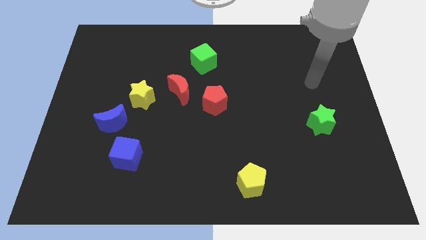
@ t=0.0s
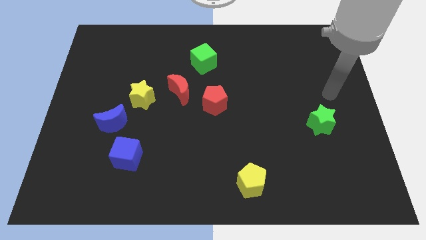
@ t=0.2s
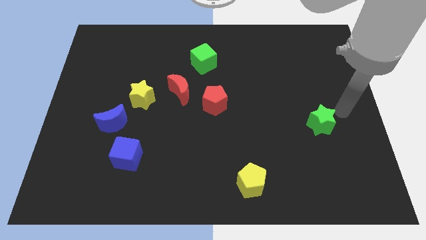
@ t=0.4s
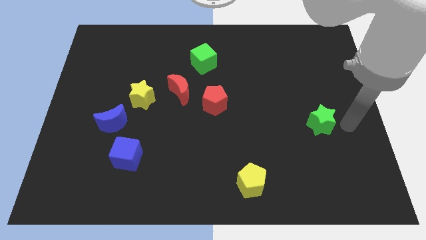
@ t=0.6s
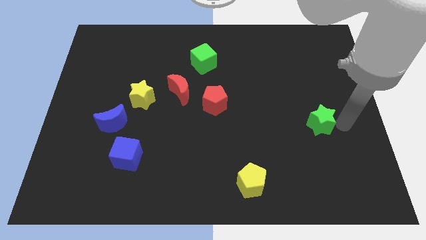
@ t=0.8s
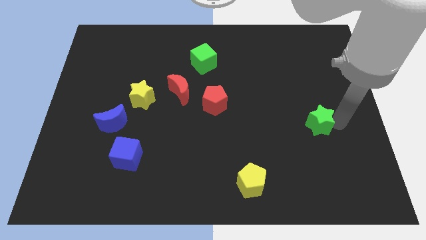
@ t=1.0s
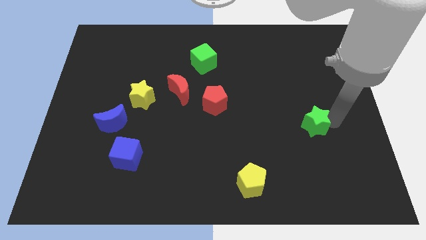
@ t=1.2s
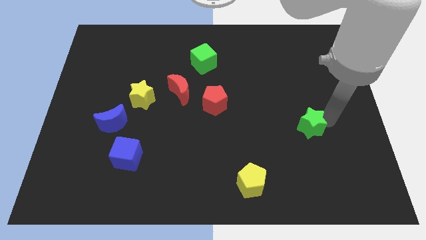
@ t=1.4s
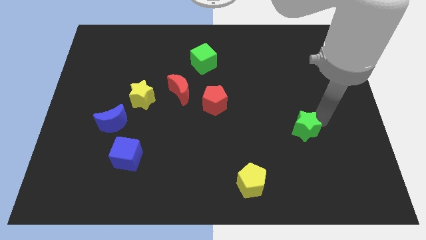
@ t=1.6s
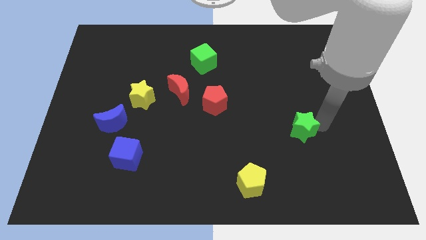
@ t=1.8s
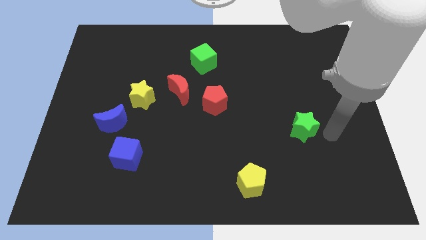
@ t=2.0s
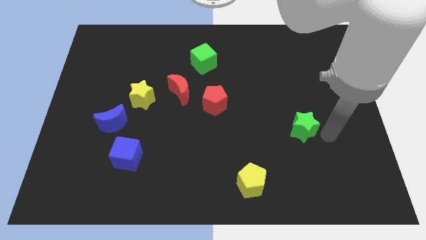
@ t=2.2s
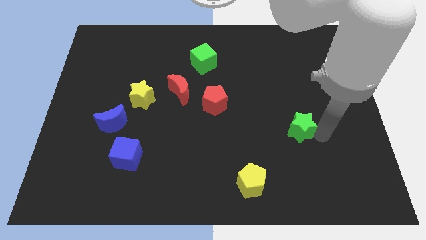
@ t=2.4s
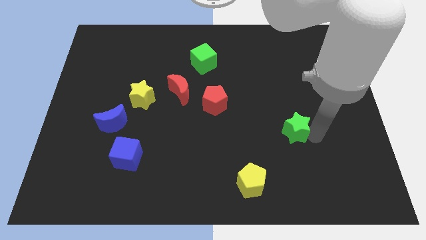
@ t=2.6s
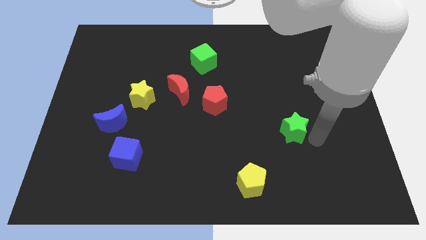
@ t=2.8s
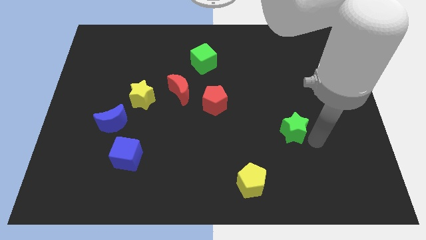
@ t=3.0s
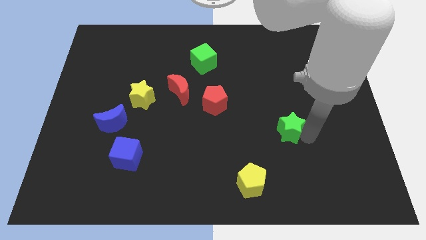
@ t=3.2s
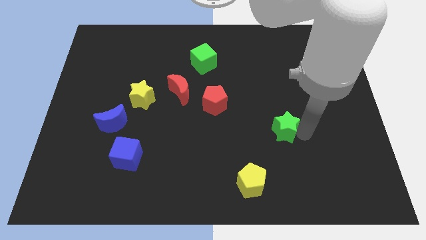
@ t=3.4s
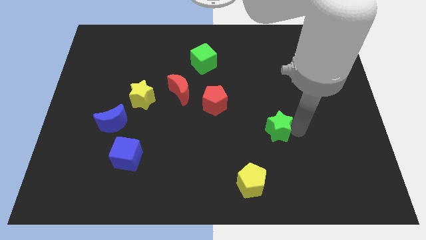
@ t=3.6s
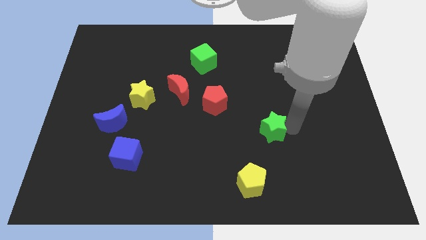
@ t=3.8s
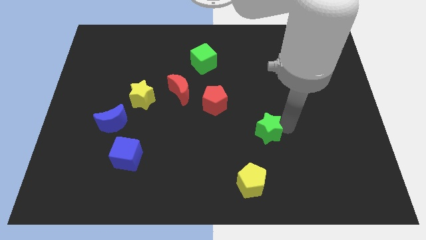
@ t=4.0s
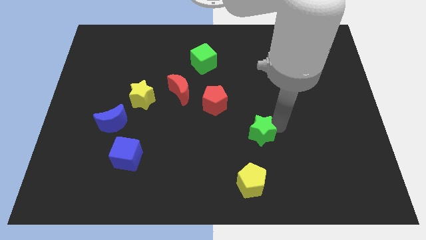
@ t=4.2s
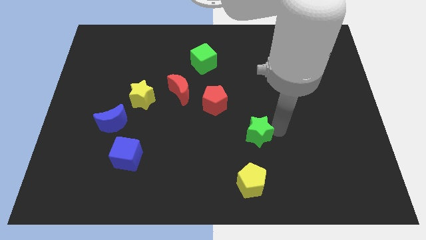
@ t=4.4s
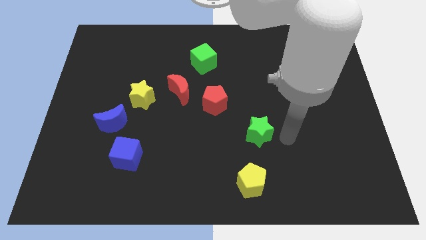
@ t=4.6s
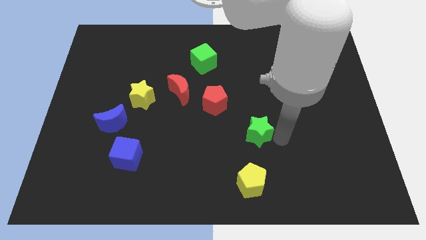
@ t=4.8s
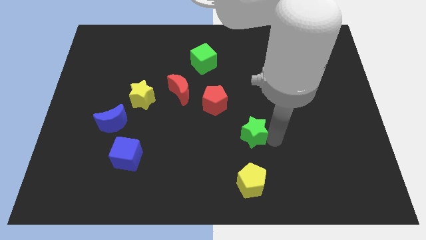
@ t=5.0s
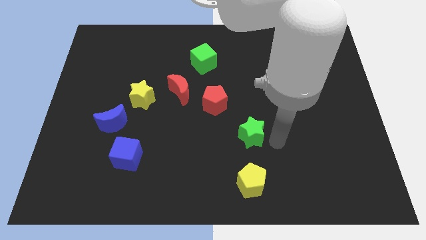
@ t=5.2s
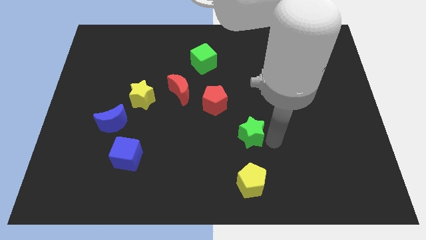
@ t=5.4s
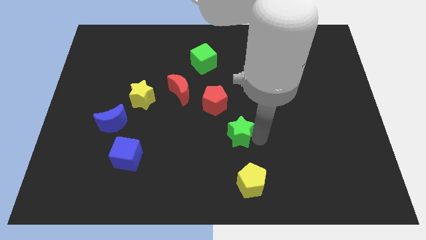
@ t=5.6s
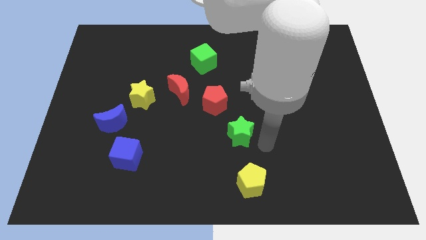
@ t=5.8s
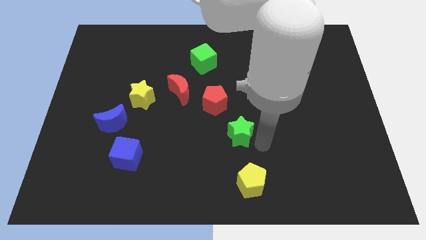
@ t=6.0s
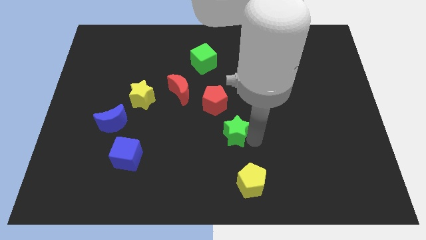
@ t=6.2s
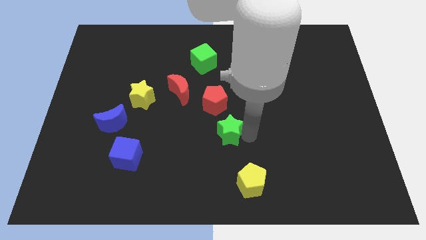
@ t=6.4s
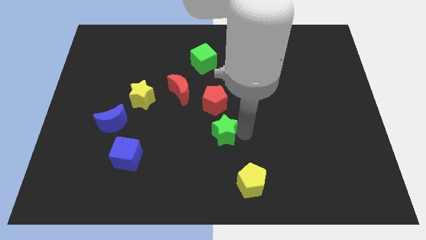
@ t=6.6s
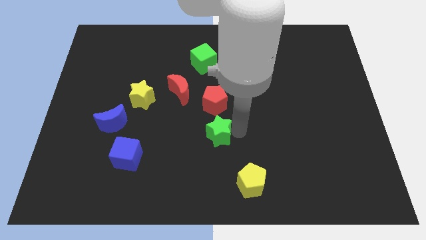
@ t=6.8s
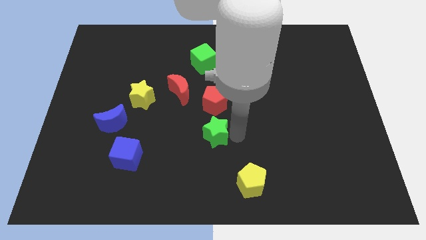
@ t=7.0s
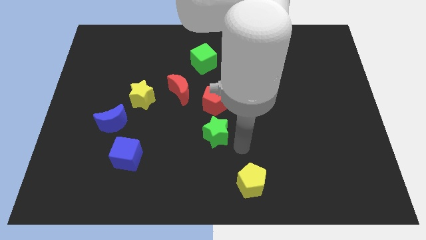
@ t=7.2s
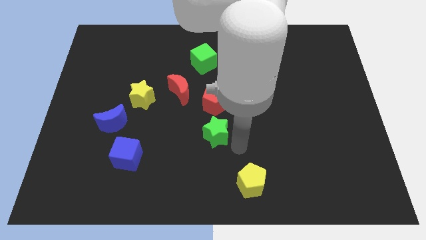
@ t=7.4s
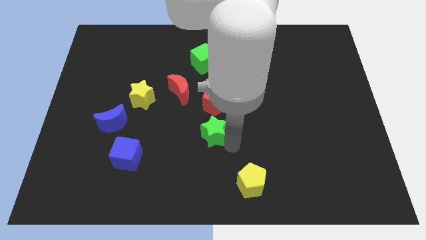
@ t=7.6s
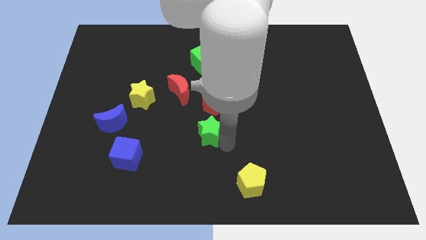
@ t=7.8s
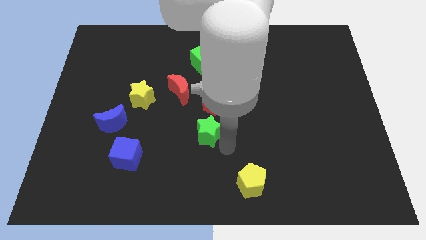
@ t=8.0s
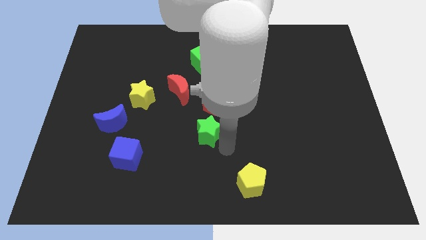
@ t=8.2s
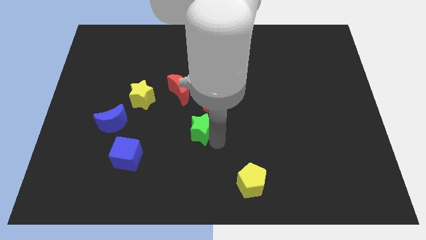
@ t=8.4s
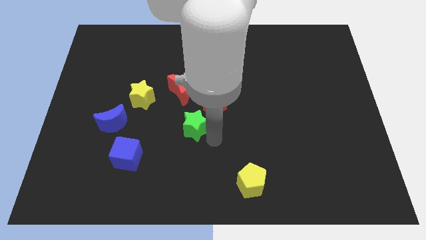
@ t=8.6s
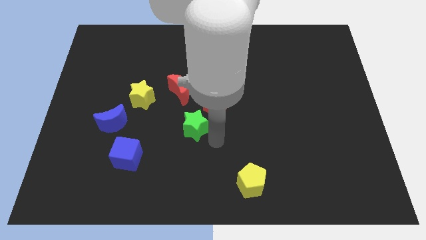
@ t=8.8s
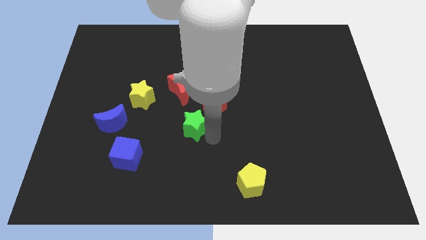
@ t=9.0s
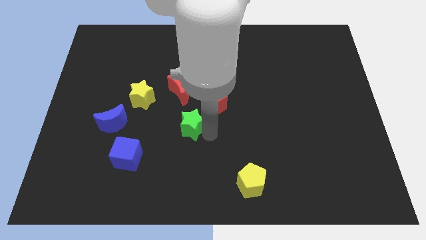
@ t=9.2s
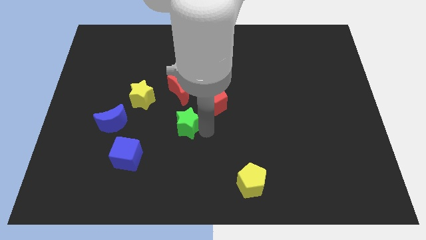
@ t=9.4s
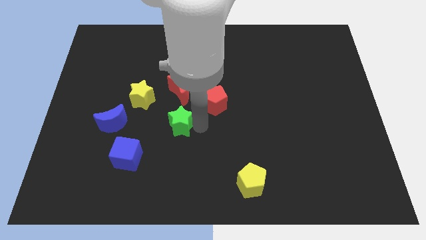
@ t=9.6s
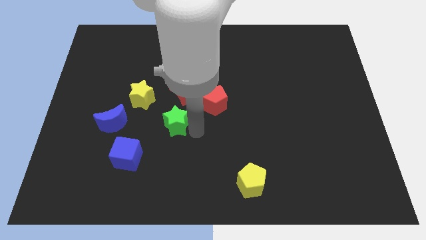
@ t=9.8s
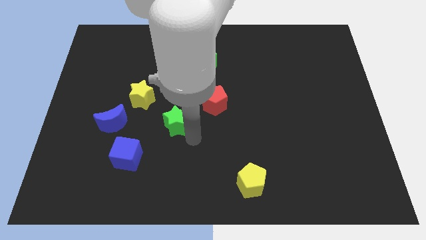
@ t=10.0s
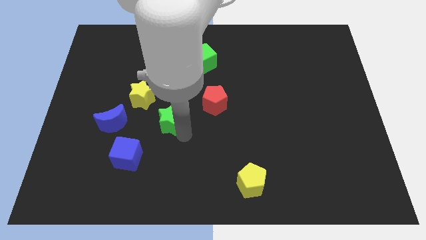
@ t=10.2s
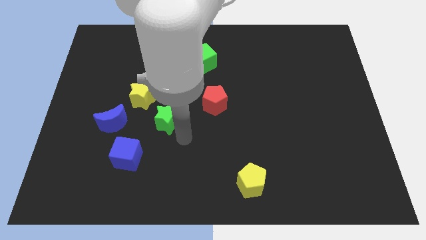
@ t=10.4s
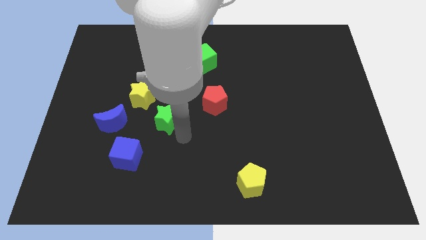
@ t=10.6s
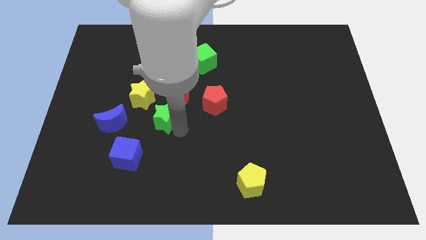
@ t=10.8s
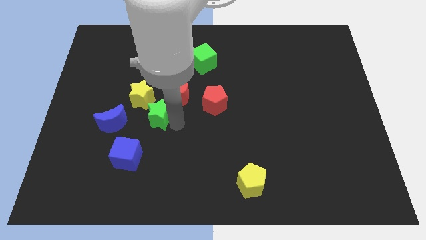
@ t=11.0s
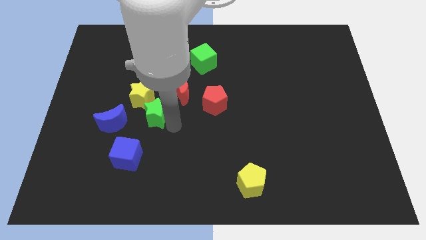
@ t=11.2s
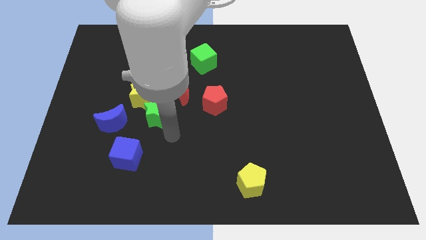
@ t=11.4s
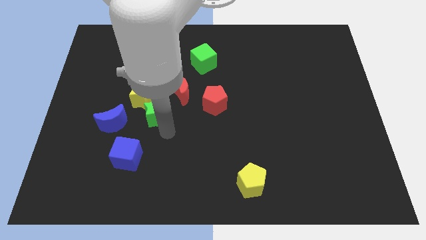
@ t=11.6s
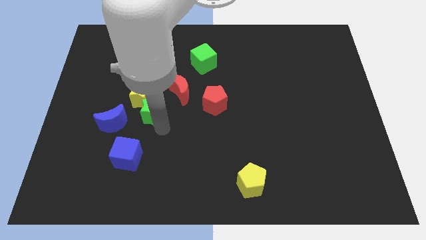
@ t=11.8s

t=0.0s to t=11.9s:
slide the green star to the yellow star

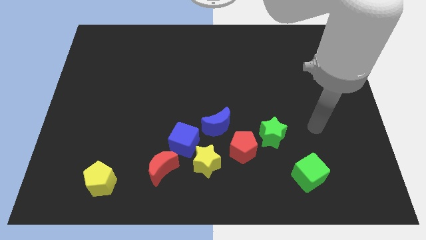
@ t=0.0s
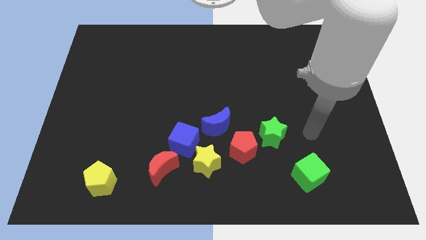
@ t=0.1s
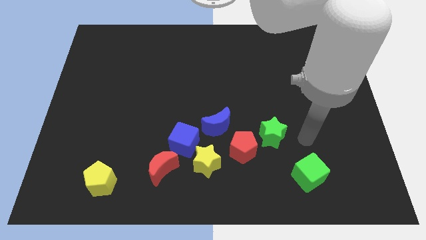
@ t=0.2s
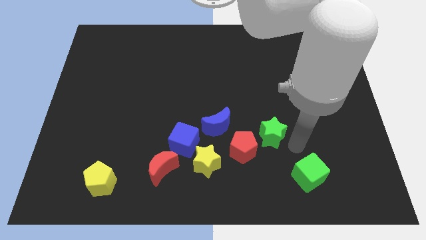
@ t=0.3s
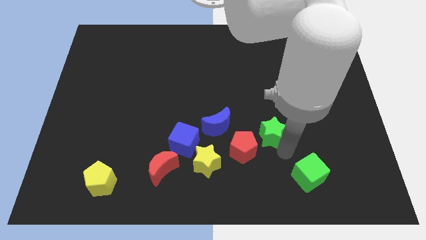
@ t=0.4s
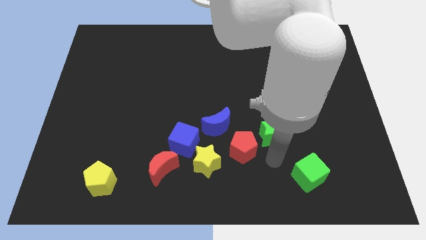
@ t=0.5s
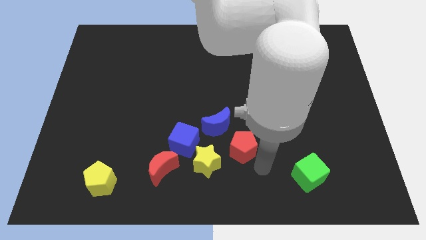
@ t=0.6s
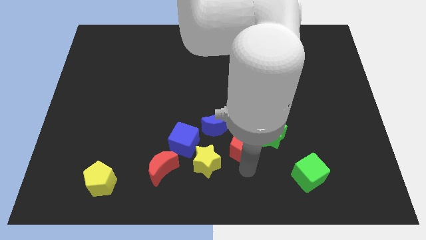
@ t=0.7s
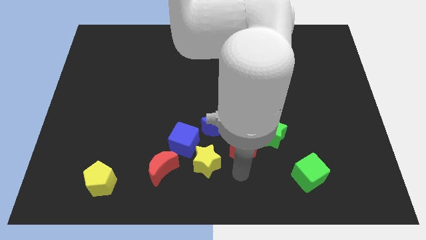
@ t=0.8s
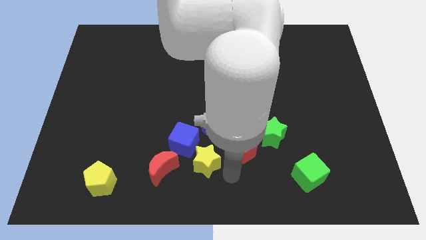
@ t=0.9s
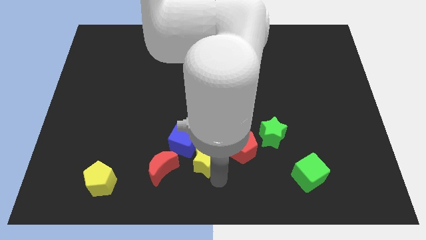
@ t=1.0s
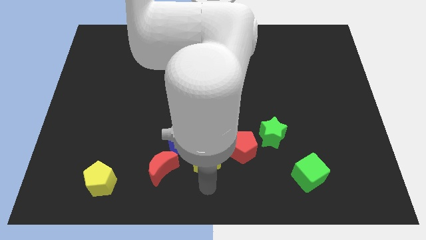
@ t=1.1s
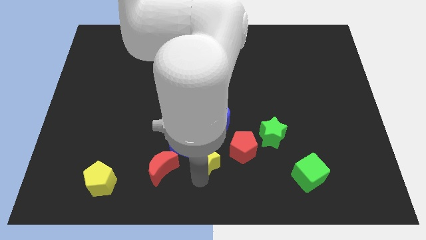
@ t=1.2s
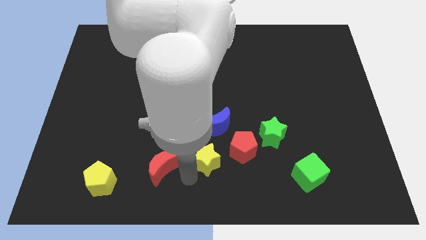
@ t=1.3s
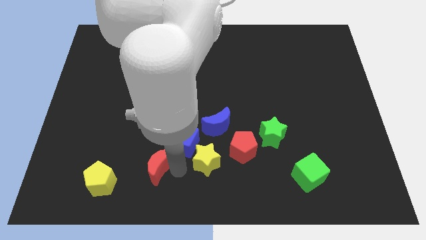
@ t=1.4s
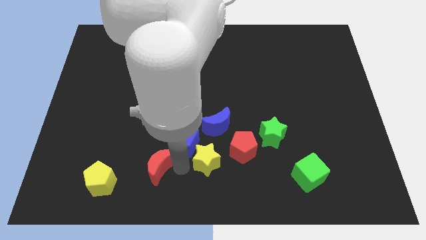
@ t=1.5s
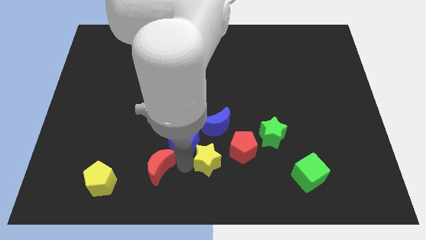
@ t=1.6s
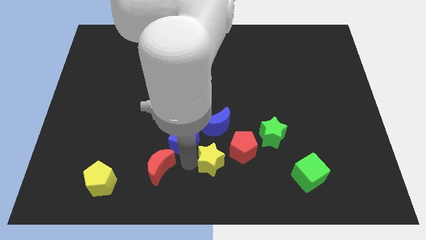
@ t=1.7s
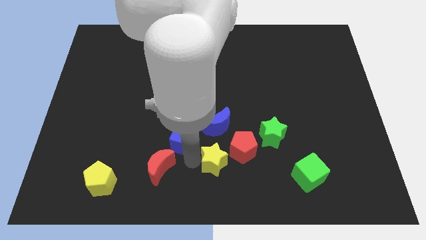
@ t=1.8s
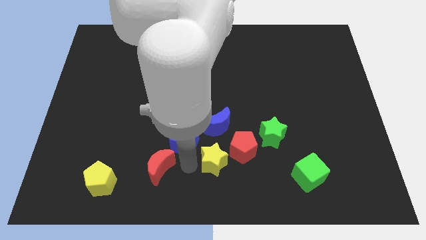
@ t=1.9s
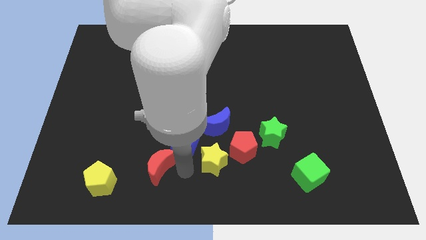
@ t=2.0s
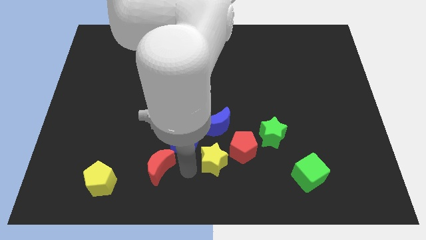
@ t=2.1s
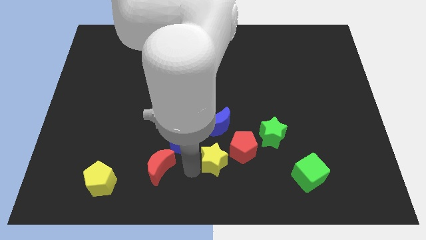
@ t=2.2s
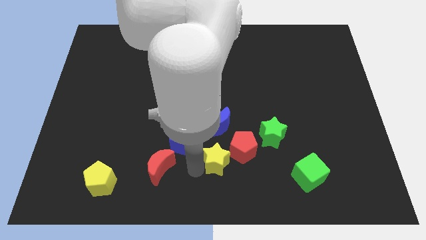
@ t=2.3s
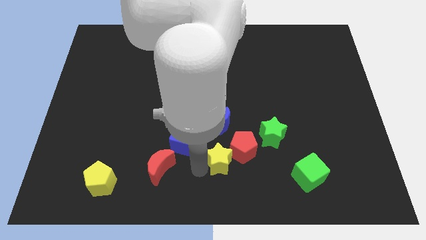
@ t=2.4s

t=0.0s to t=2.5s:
slide the yellow star next to the red pentagon
